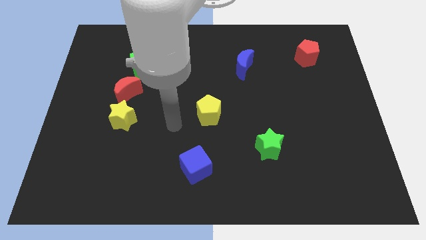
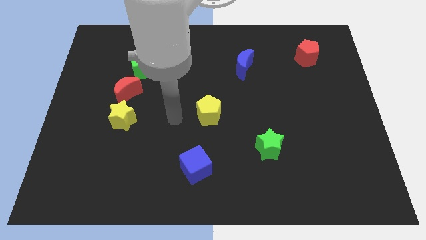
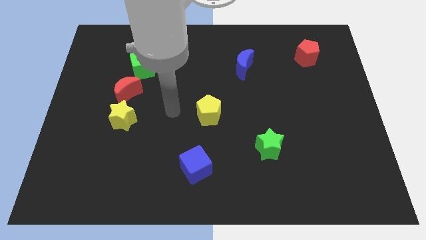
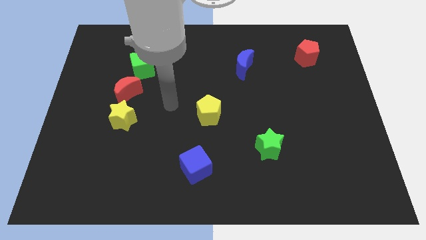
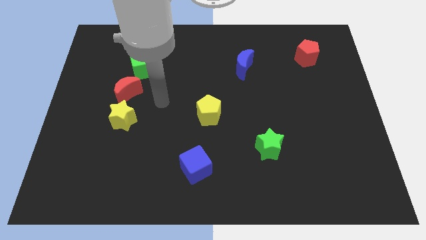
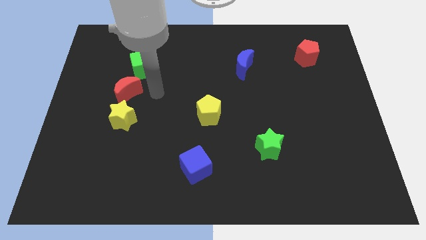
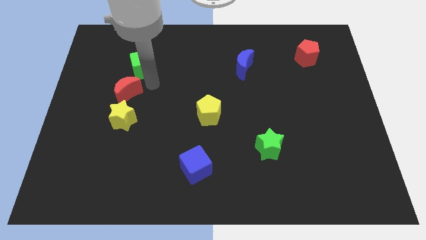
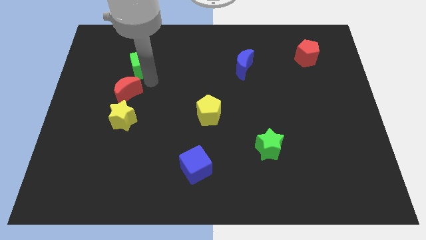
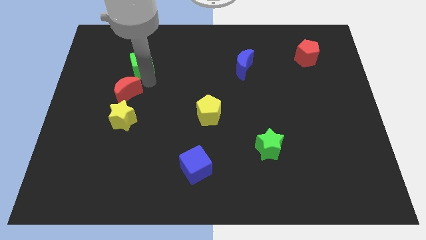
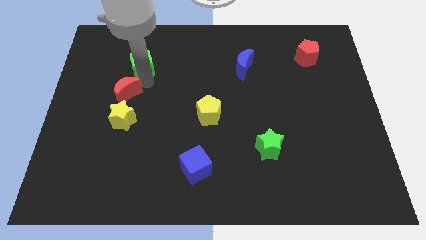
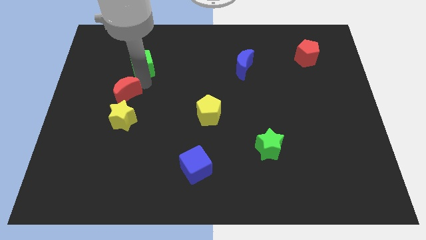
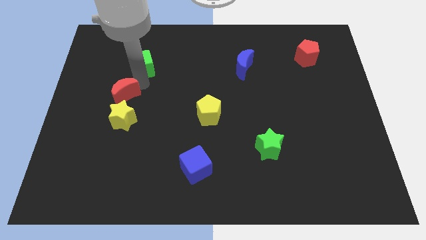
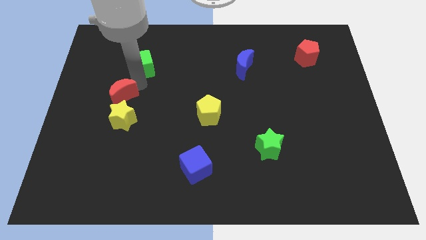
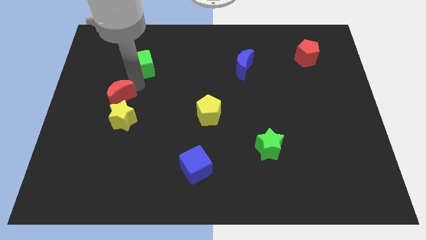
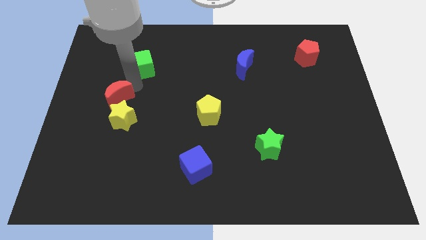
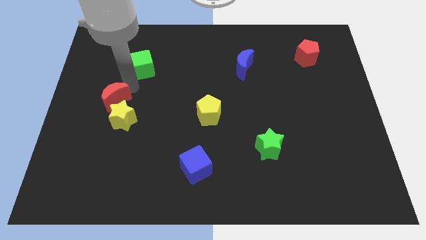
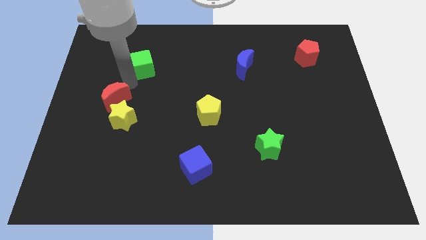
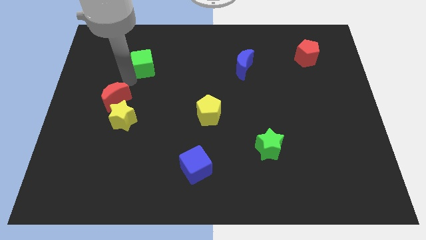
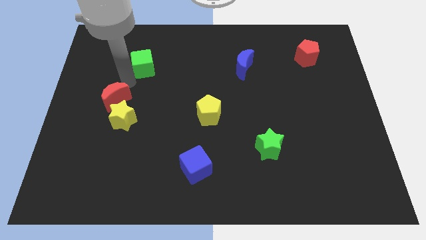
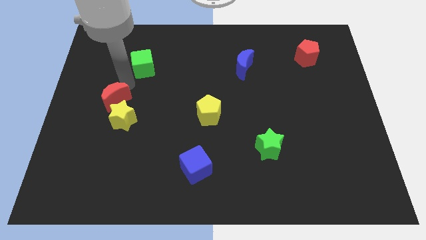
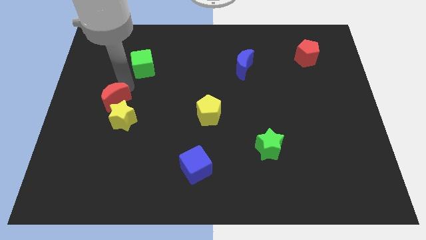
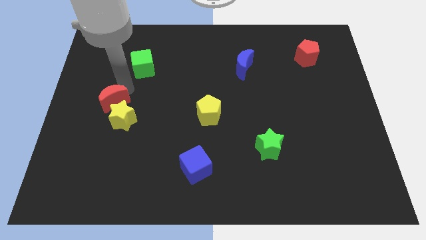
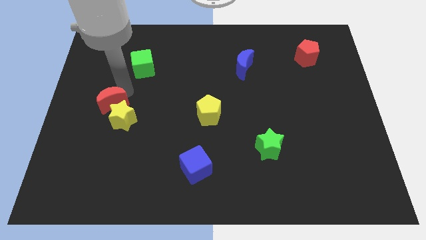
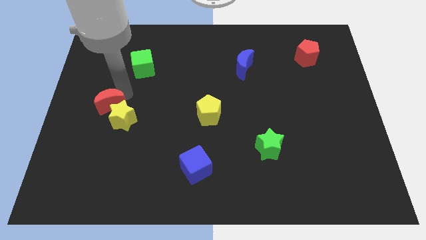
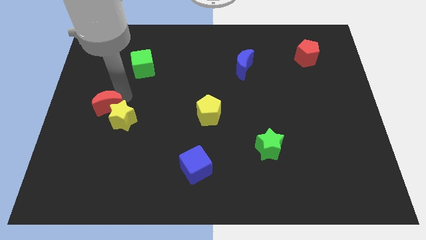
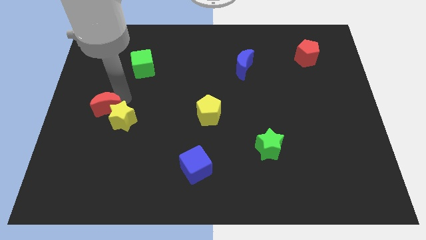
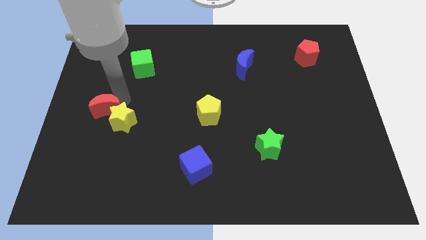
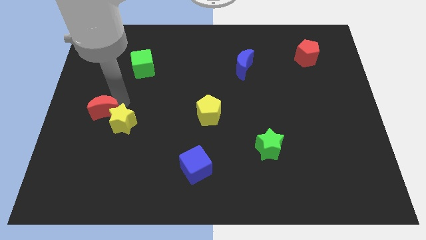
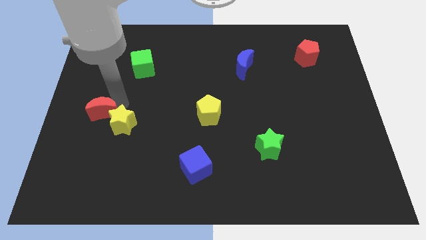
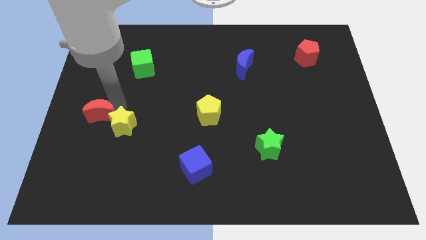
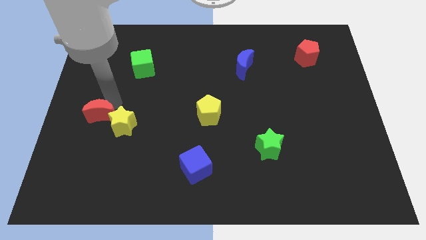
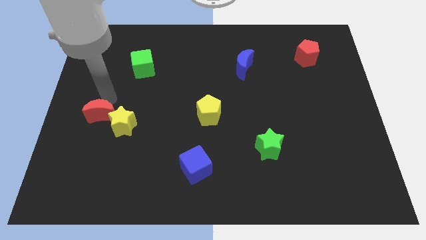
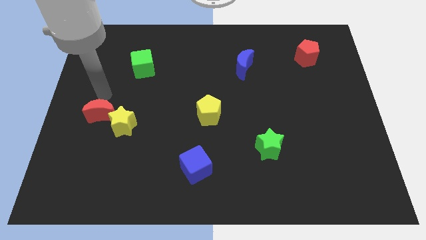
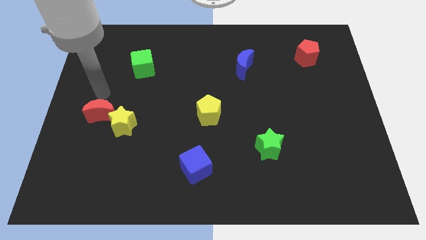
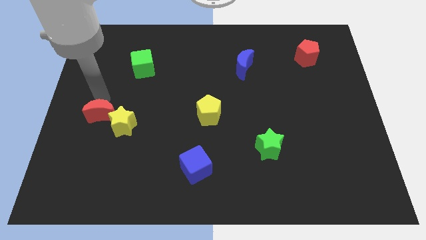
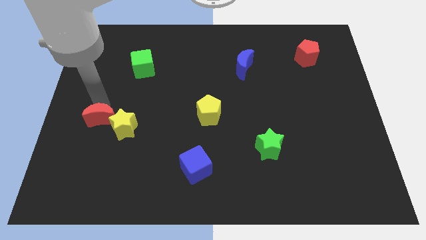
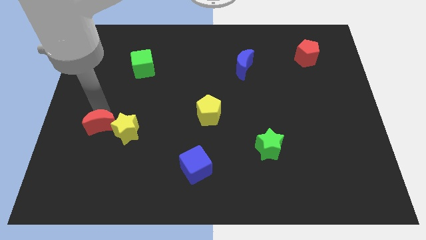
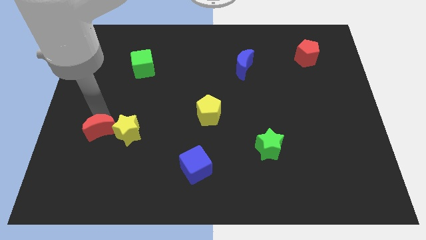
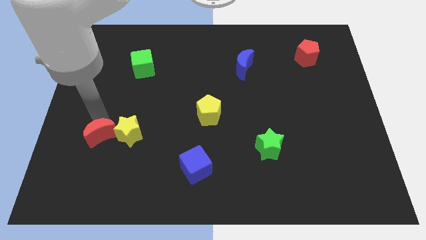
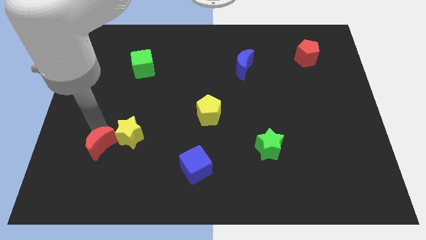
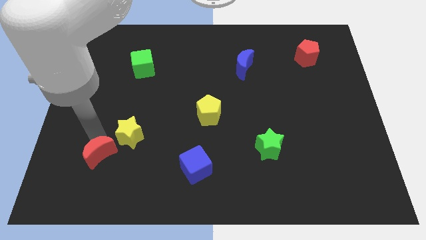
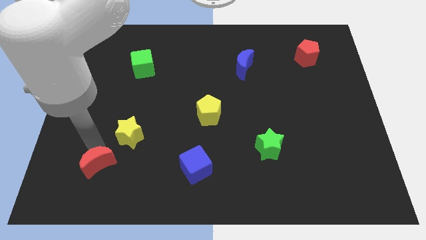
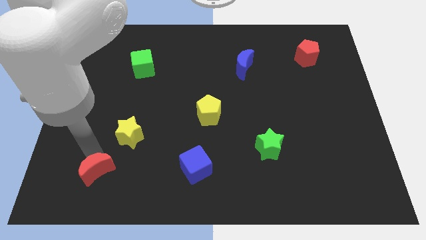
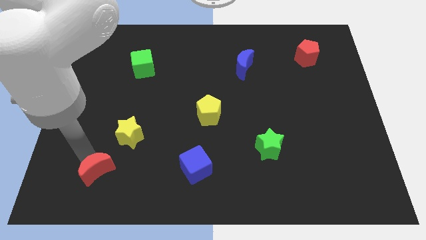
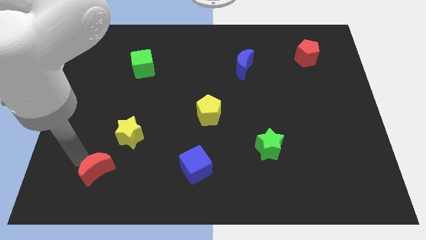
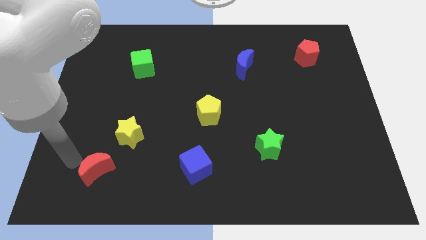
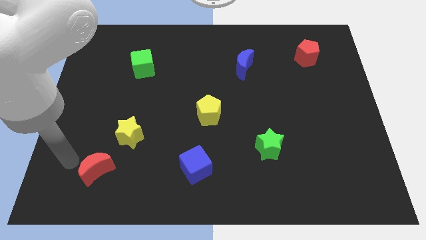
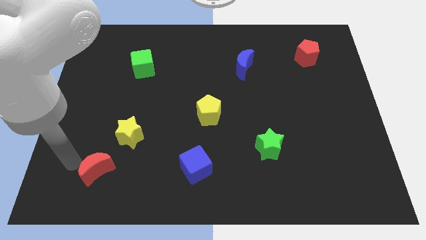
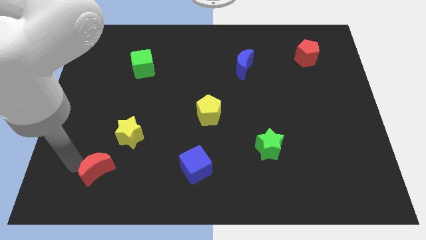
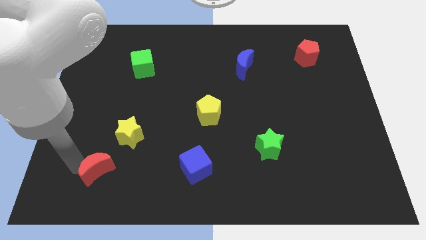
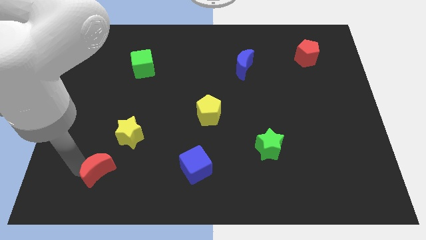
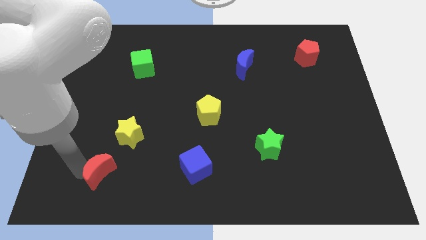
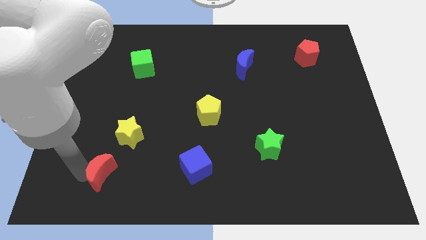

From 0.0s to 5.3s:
slide the red moon to the bottom of the yellow star

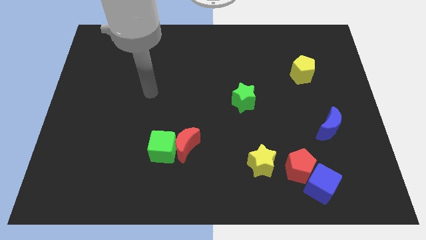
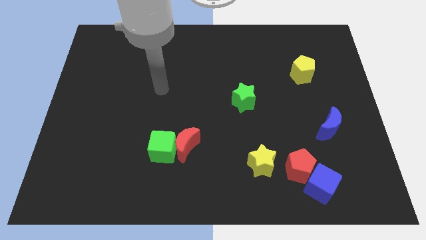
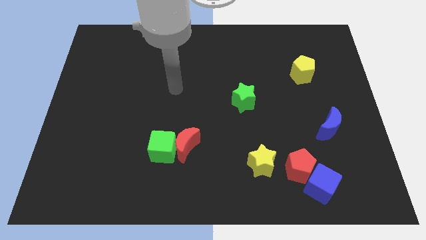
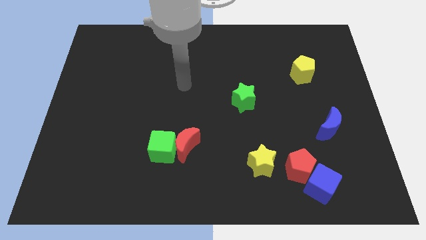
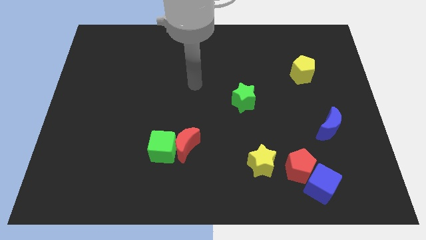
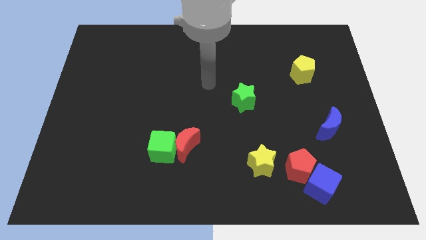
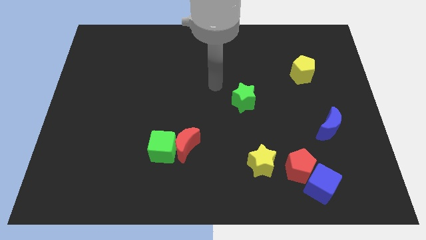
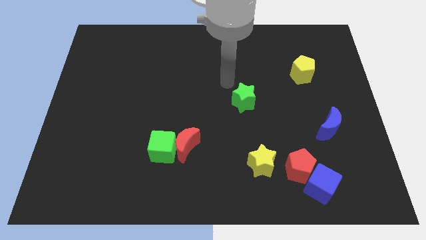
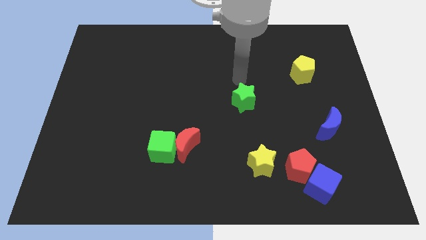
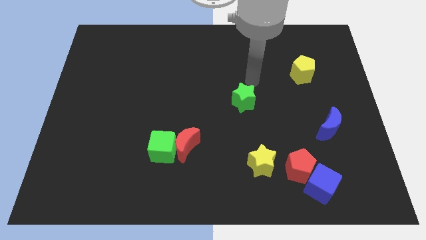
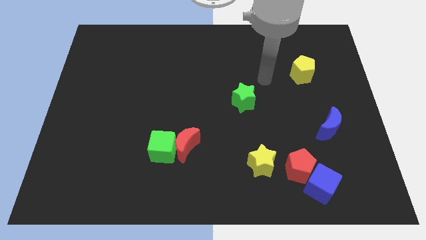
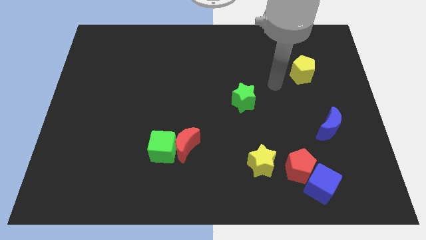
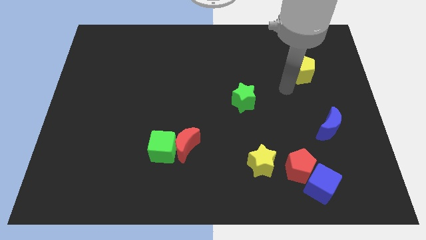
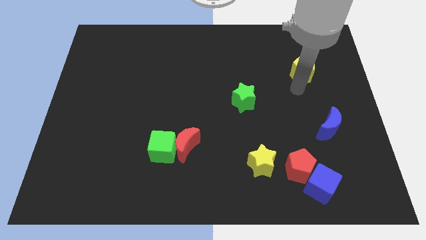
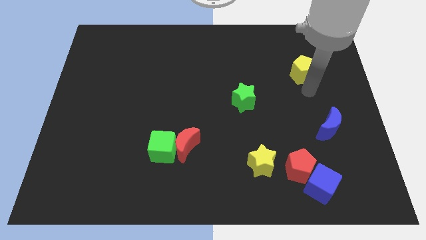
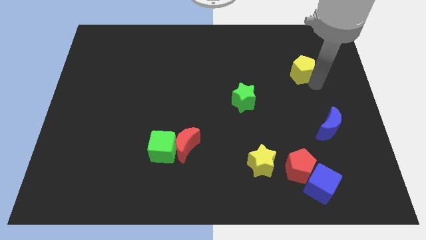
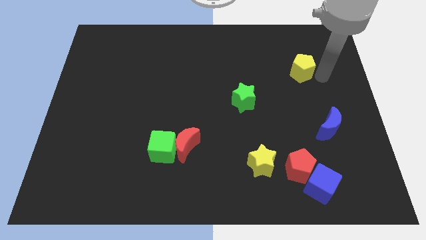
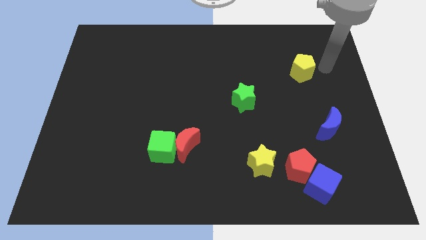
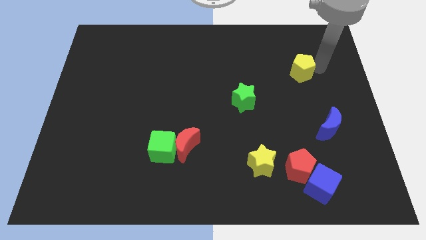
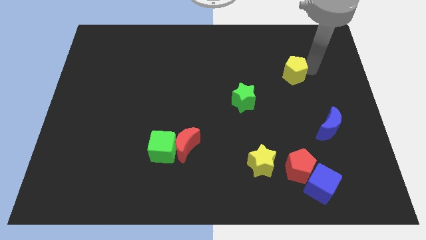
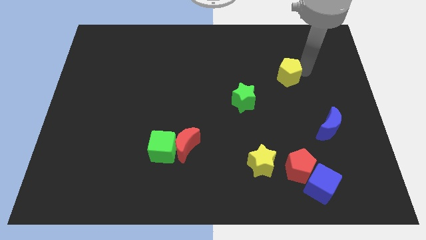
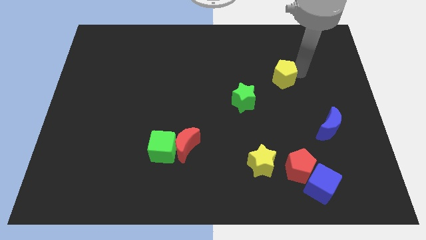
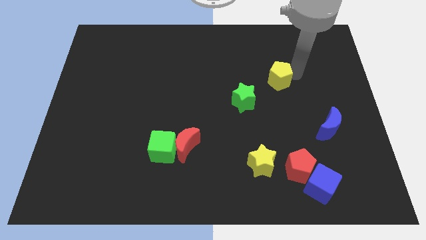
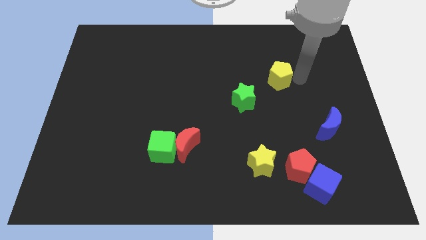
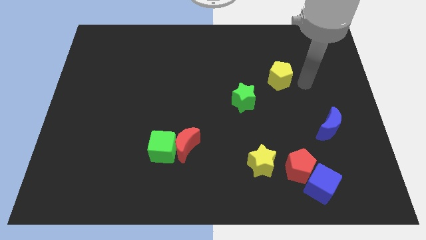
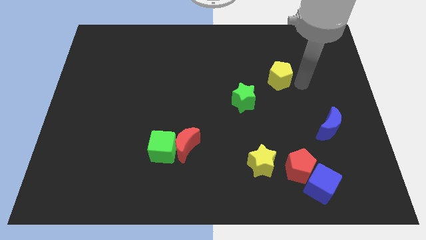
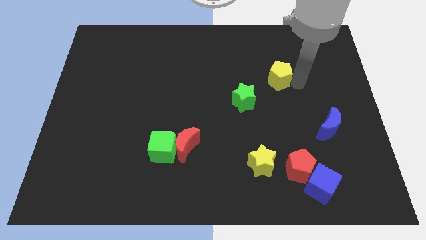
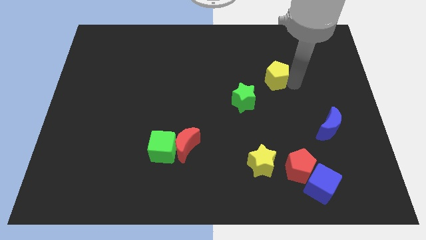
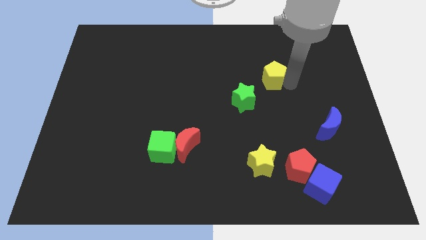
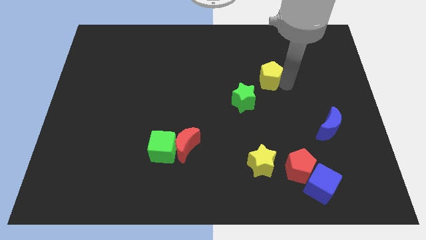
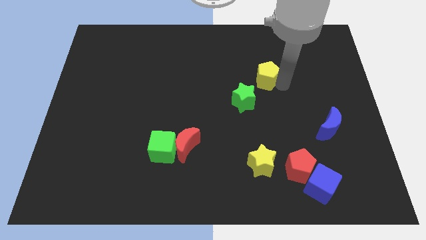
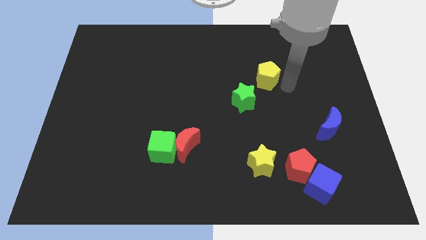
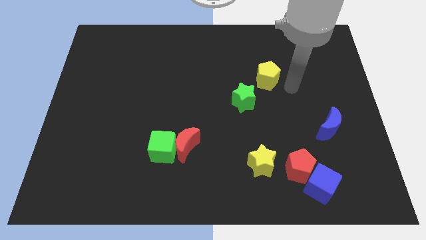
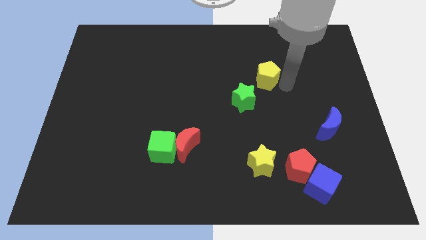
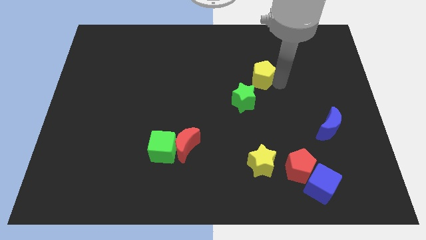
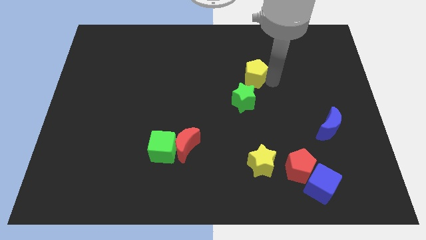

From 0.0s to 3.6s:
put the yellow pentagon above the green star
